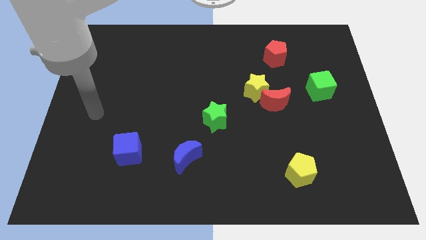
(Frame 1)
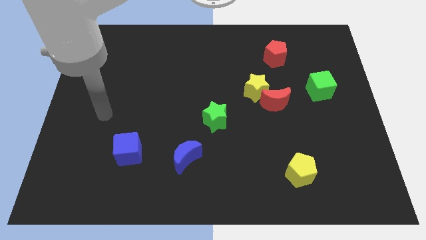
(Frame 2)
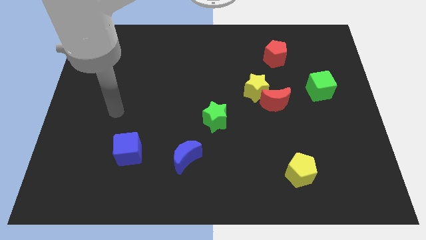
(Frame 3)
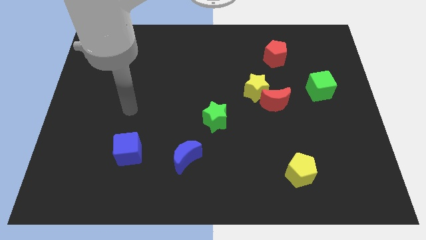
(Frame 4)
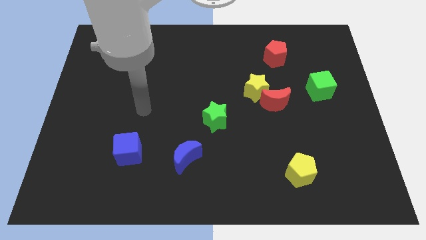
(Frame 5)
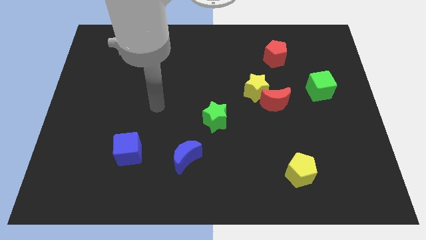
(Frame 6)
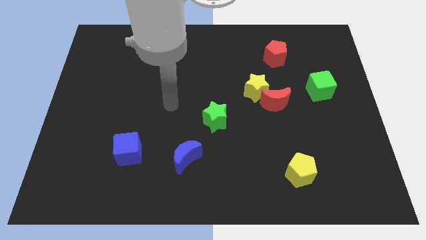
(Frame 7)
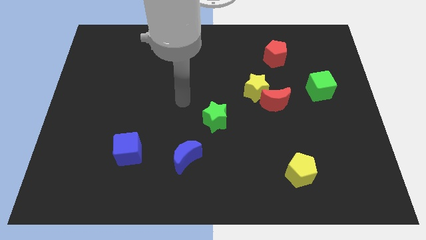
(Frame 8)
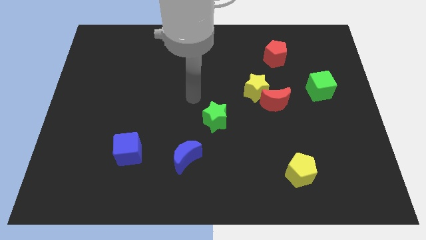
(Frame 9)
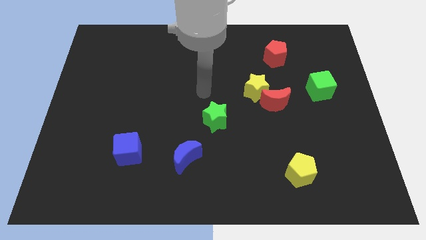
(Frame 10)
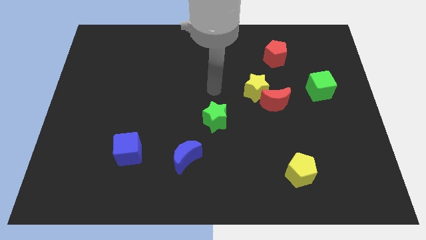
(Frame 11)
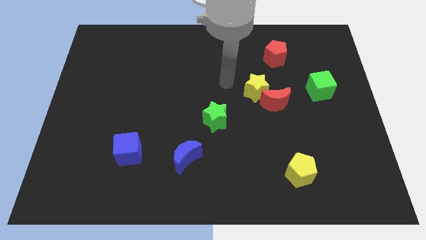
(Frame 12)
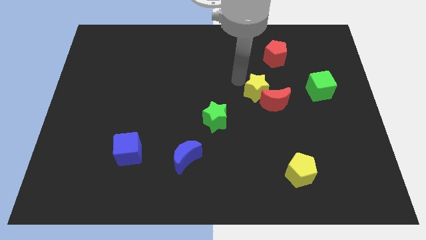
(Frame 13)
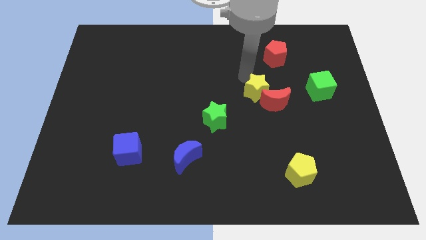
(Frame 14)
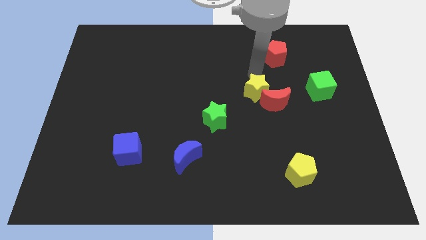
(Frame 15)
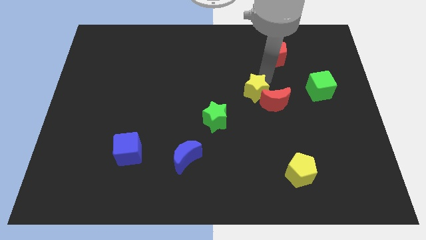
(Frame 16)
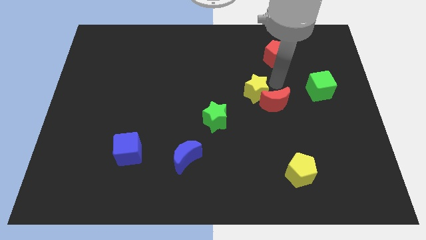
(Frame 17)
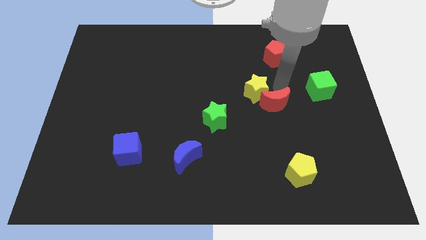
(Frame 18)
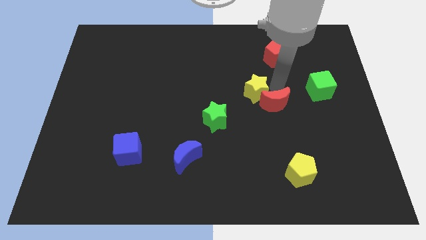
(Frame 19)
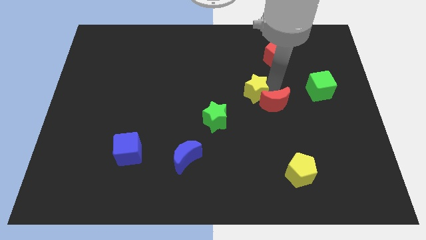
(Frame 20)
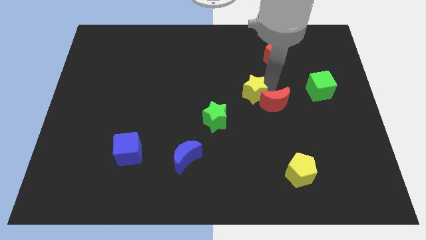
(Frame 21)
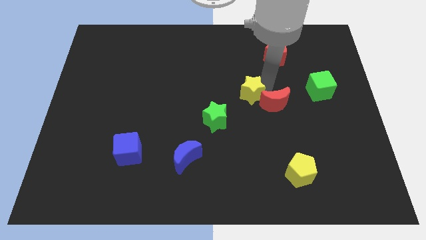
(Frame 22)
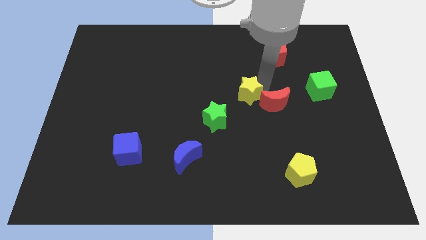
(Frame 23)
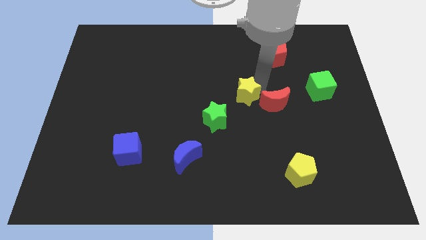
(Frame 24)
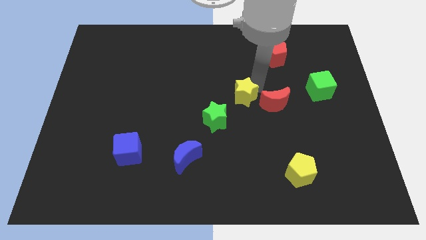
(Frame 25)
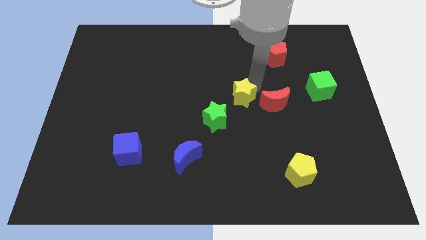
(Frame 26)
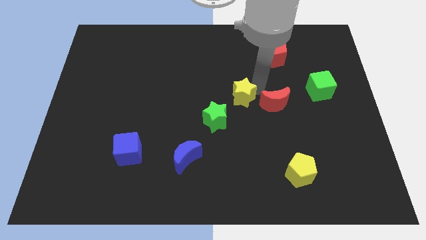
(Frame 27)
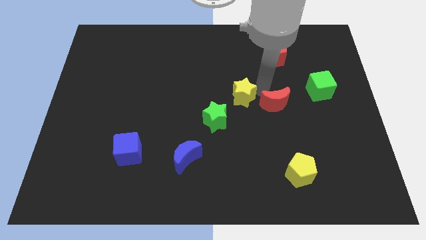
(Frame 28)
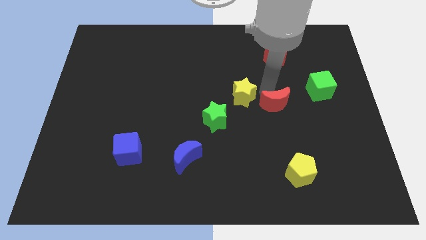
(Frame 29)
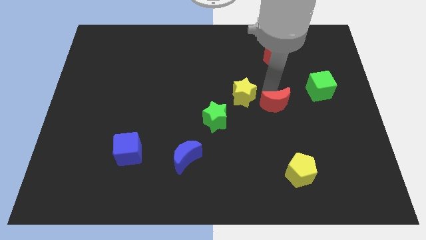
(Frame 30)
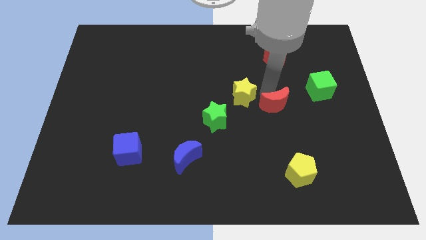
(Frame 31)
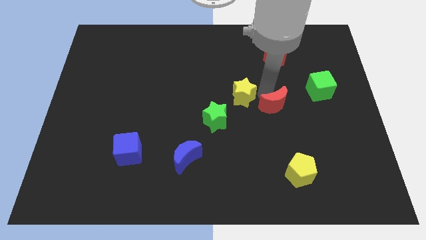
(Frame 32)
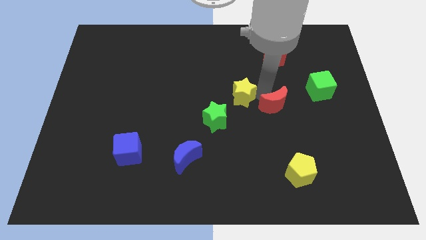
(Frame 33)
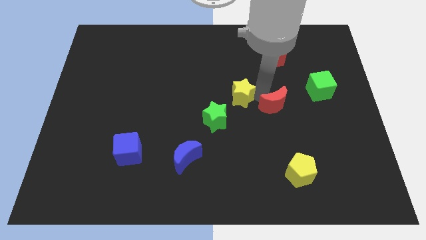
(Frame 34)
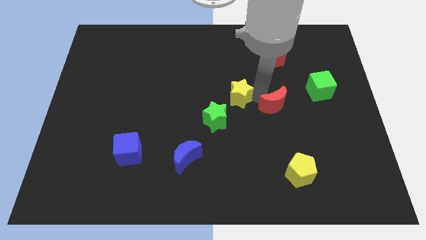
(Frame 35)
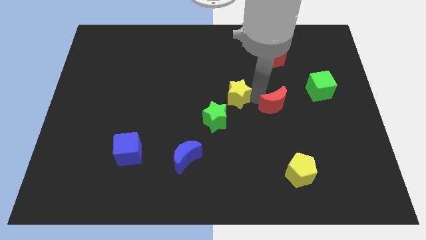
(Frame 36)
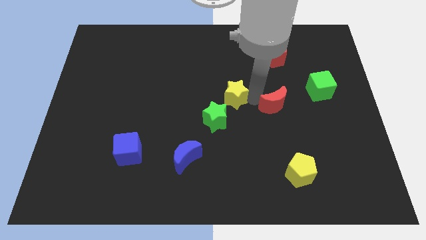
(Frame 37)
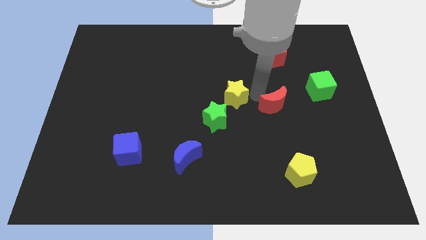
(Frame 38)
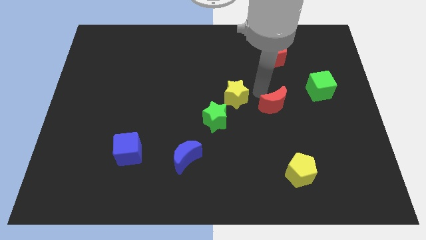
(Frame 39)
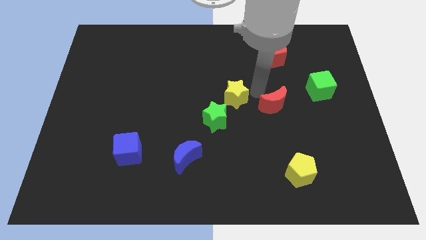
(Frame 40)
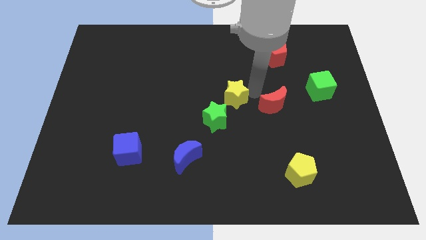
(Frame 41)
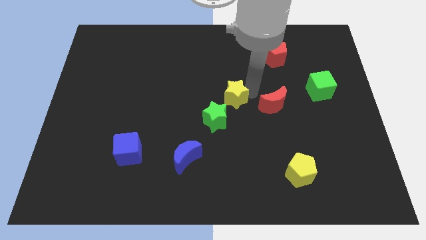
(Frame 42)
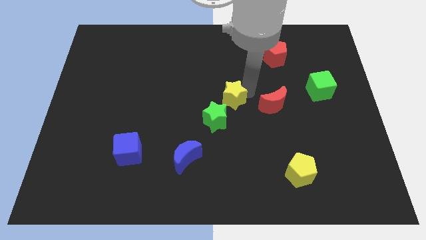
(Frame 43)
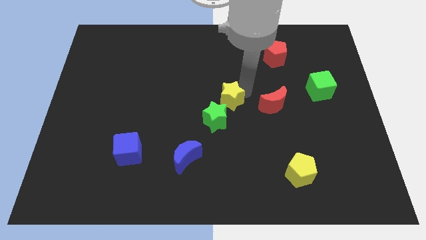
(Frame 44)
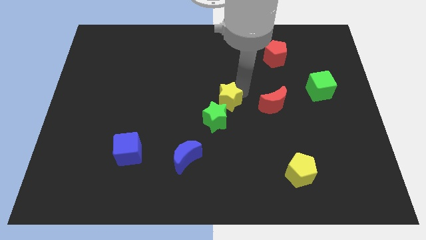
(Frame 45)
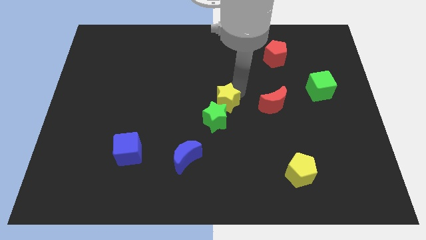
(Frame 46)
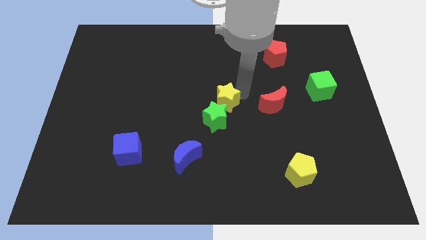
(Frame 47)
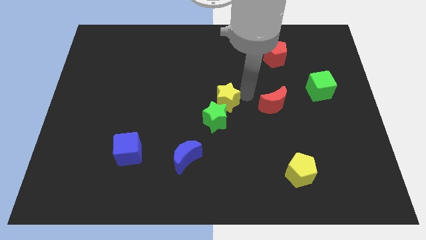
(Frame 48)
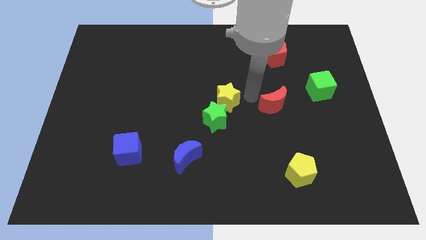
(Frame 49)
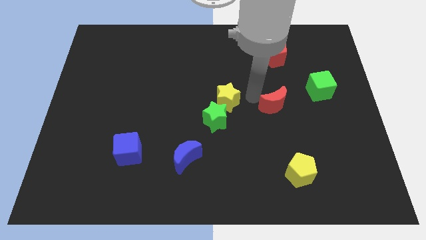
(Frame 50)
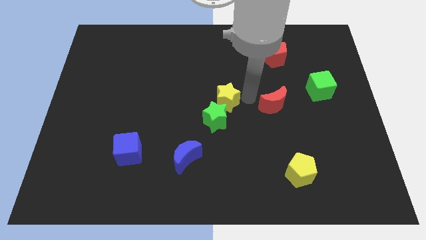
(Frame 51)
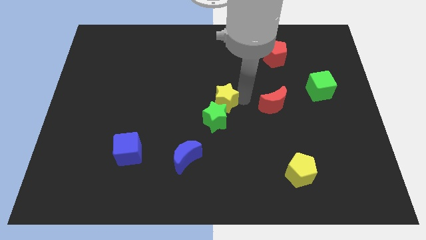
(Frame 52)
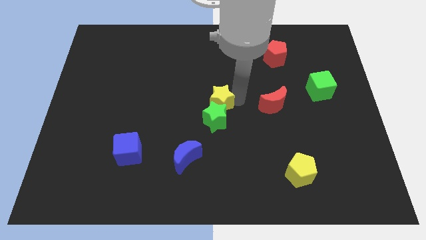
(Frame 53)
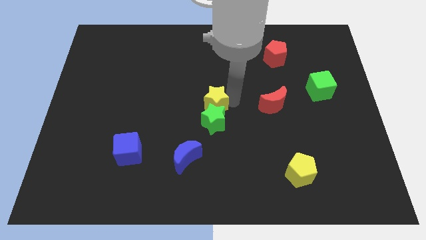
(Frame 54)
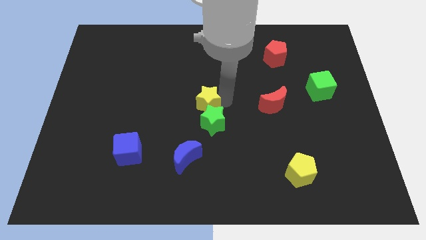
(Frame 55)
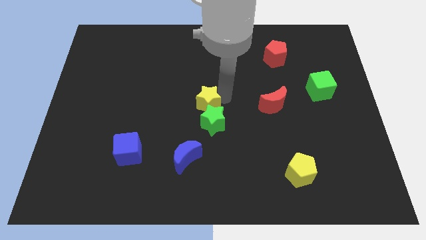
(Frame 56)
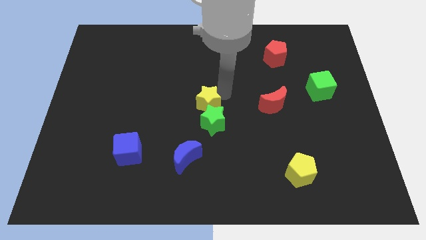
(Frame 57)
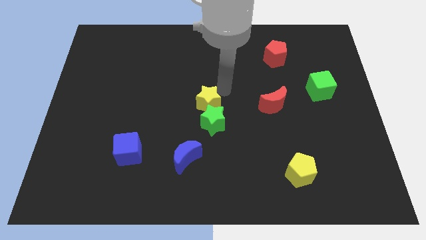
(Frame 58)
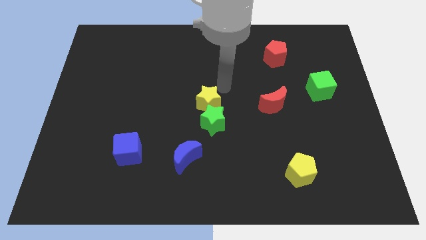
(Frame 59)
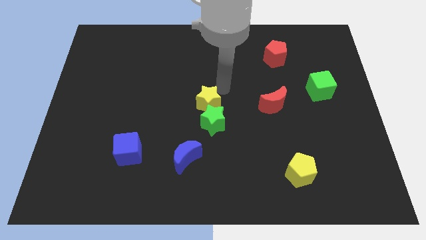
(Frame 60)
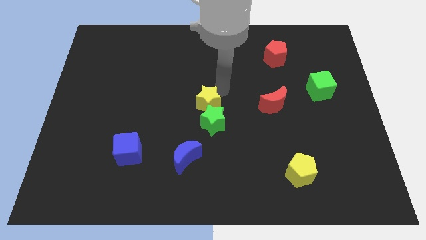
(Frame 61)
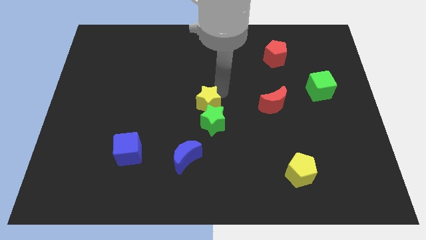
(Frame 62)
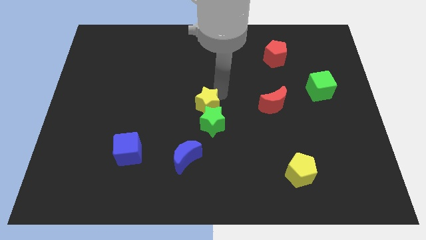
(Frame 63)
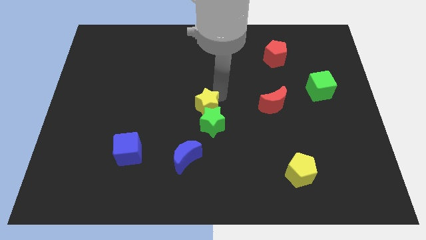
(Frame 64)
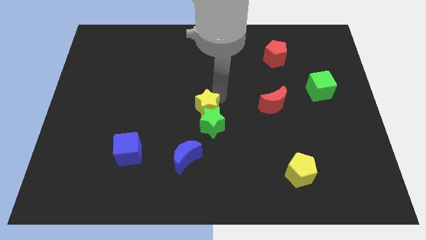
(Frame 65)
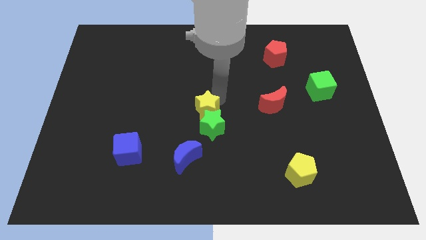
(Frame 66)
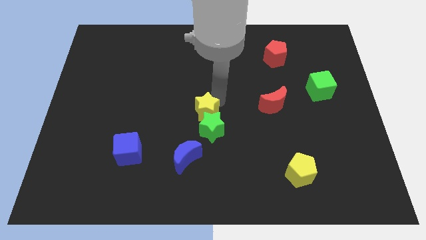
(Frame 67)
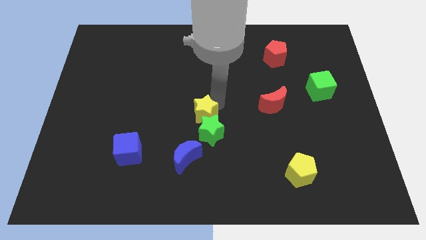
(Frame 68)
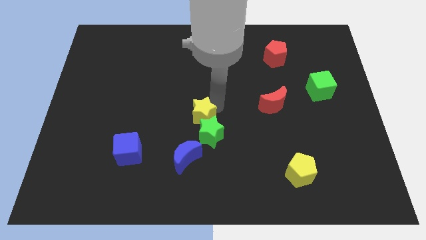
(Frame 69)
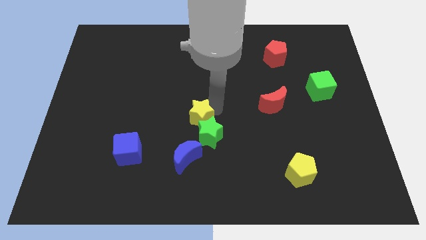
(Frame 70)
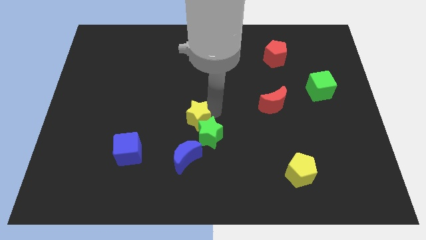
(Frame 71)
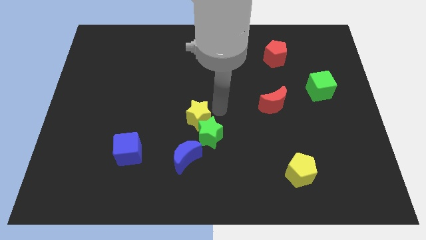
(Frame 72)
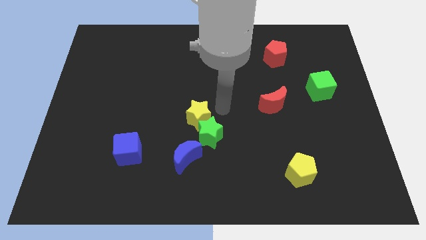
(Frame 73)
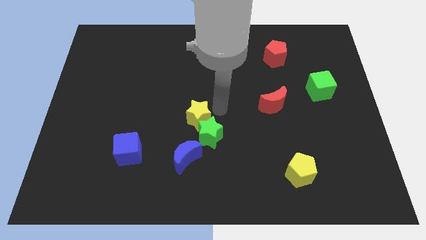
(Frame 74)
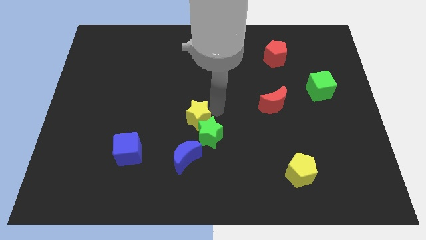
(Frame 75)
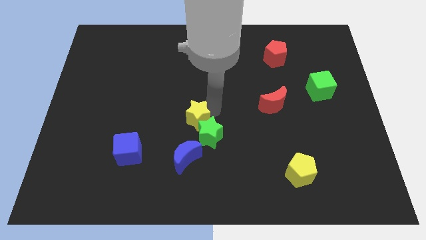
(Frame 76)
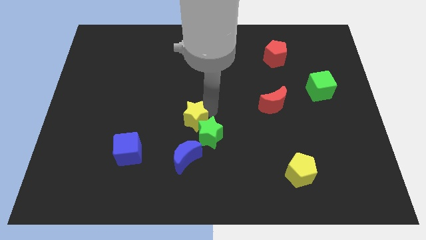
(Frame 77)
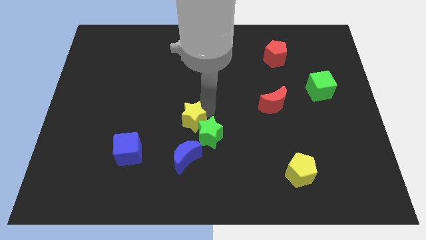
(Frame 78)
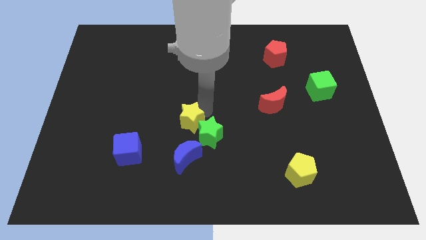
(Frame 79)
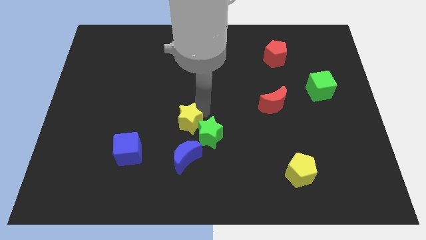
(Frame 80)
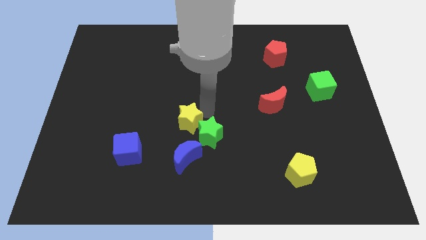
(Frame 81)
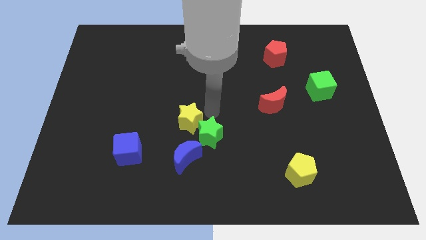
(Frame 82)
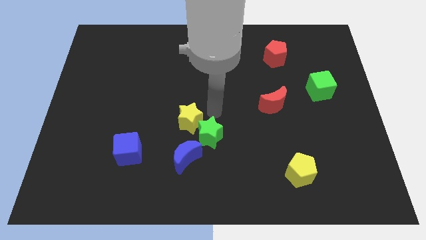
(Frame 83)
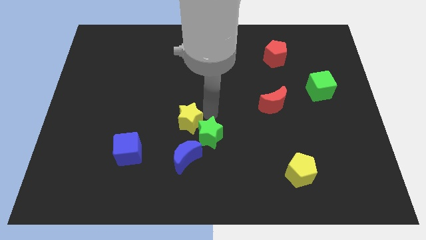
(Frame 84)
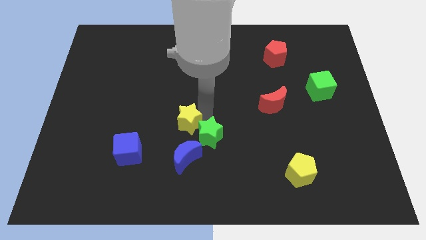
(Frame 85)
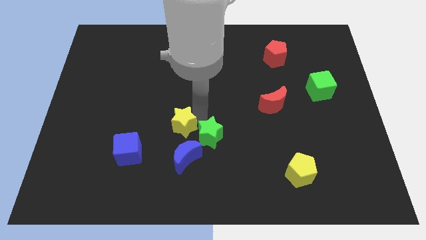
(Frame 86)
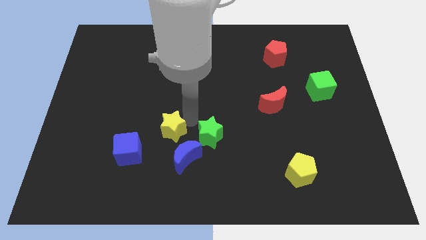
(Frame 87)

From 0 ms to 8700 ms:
push the yellow star downwards and then to the left
